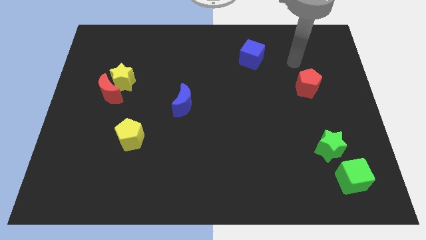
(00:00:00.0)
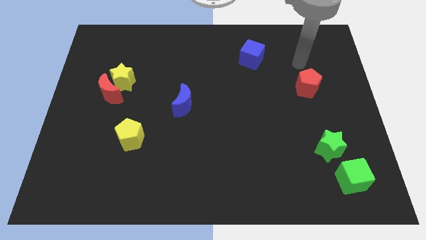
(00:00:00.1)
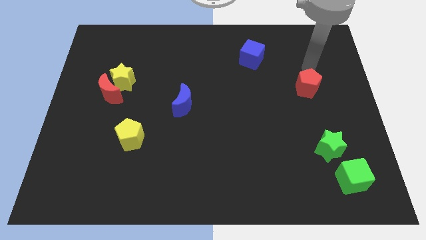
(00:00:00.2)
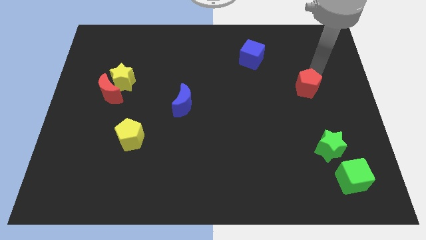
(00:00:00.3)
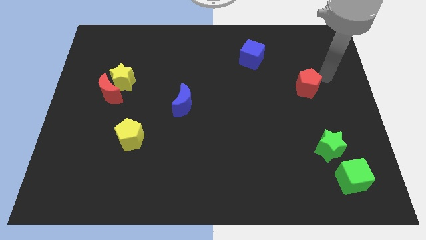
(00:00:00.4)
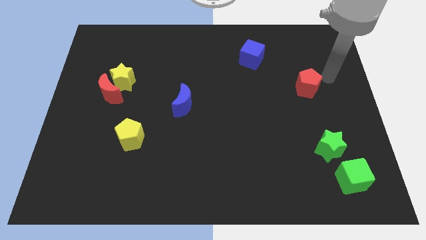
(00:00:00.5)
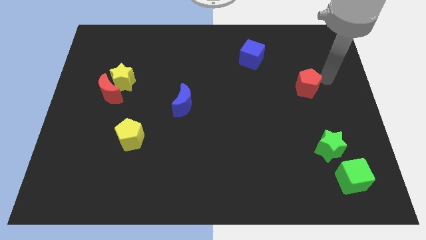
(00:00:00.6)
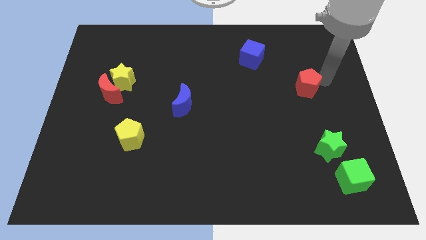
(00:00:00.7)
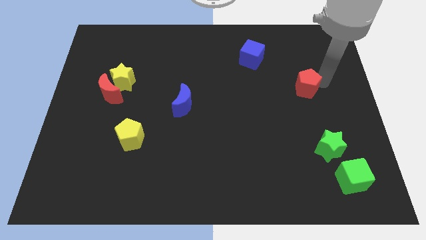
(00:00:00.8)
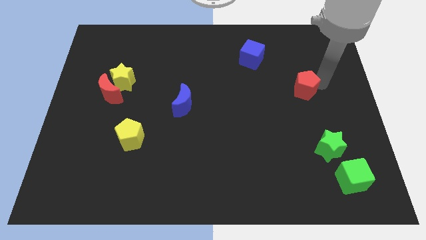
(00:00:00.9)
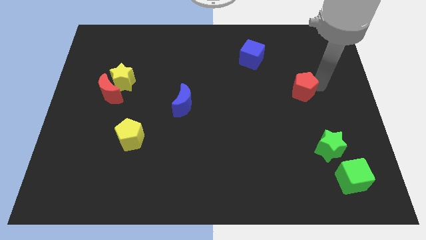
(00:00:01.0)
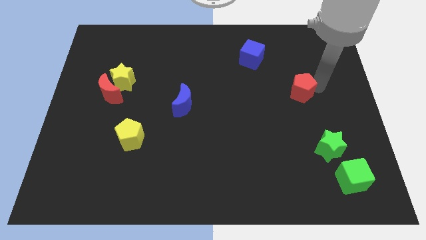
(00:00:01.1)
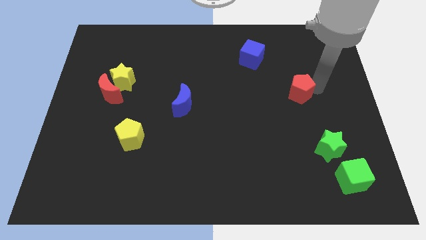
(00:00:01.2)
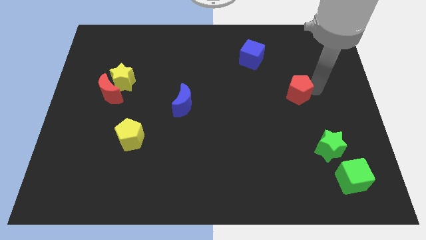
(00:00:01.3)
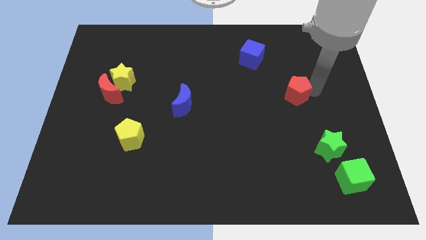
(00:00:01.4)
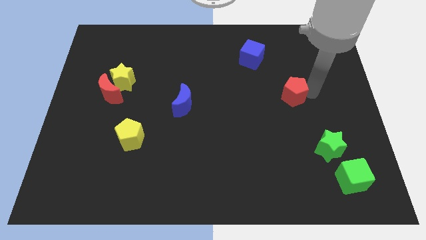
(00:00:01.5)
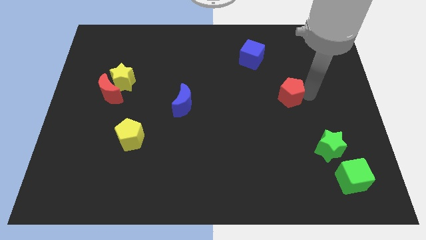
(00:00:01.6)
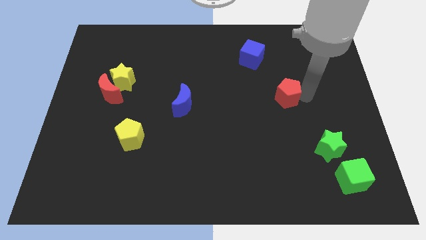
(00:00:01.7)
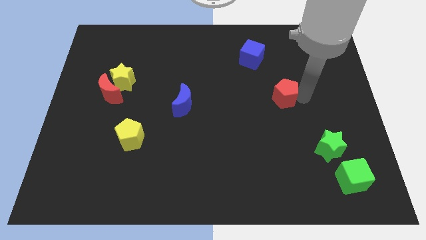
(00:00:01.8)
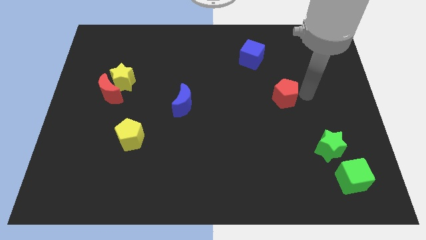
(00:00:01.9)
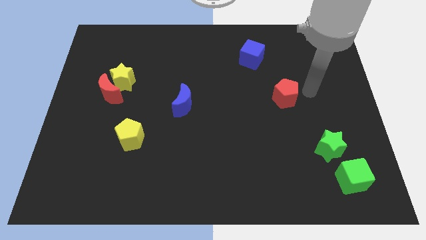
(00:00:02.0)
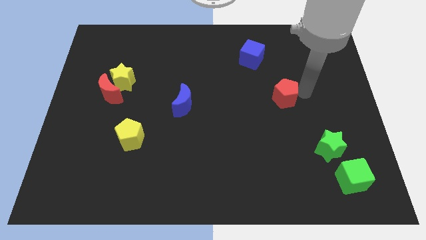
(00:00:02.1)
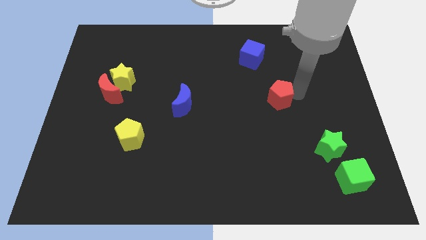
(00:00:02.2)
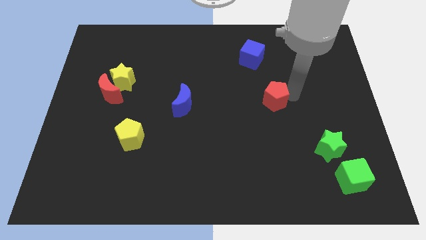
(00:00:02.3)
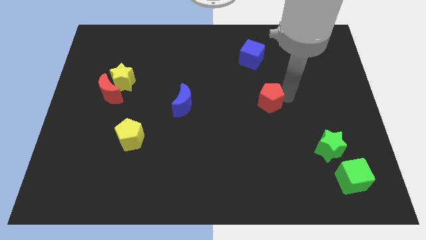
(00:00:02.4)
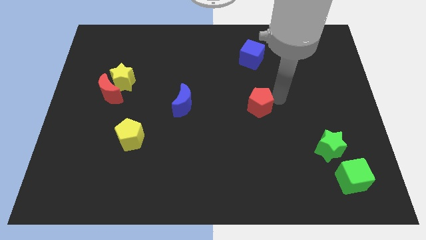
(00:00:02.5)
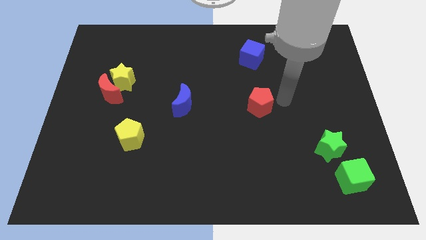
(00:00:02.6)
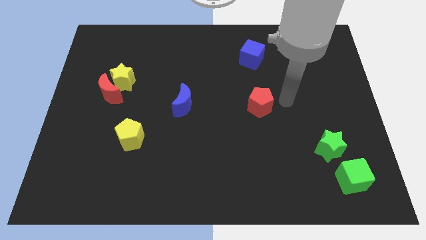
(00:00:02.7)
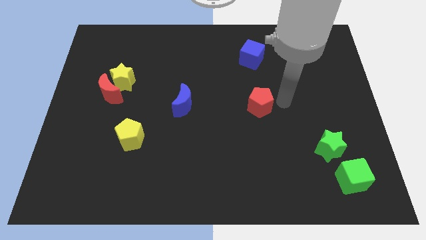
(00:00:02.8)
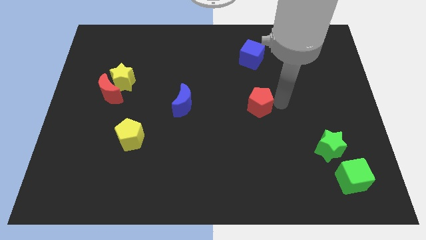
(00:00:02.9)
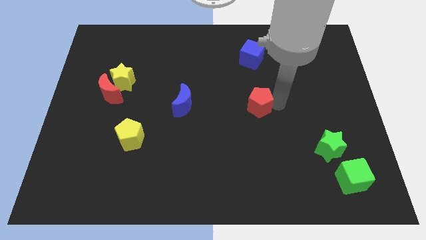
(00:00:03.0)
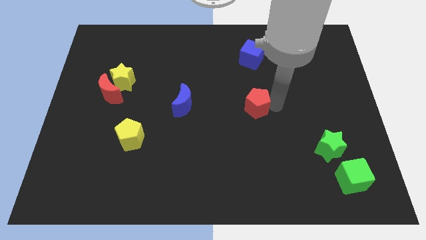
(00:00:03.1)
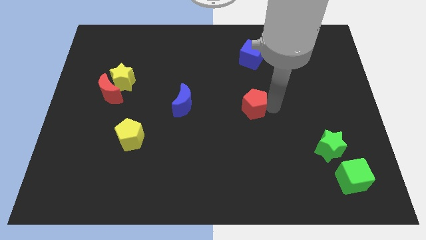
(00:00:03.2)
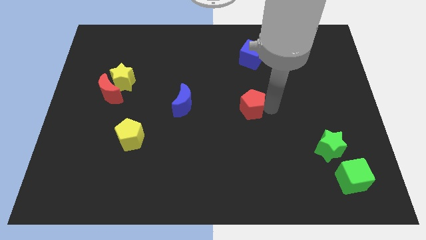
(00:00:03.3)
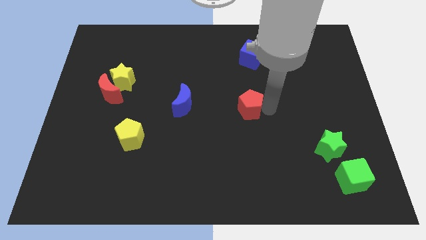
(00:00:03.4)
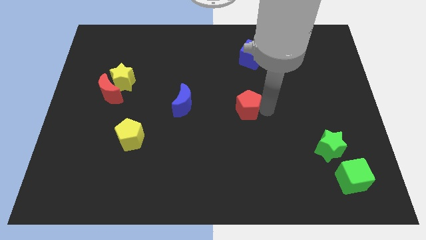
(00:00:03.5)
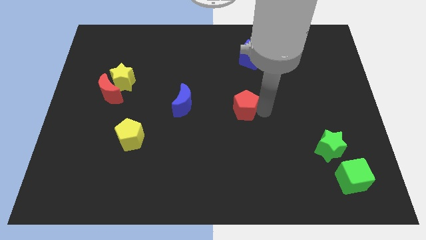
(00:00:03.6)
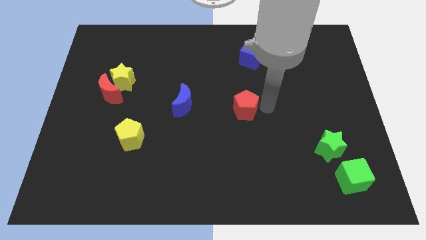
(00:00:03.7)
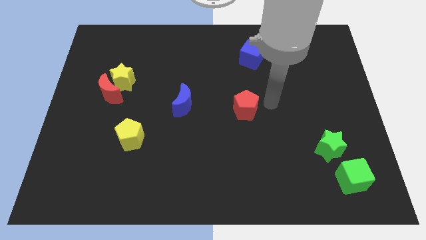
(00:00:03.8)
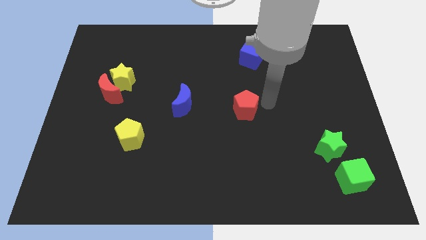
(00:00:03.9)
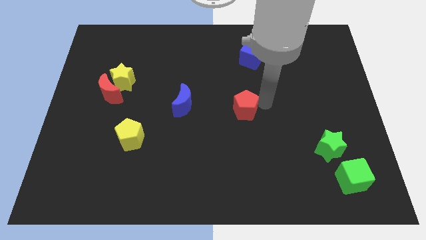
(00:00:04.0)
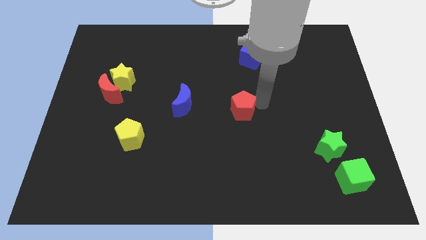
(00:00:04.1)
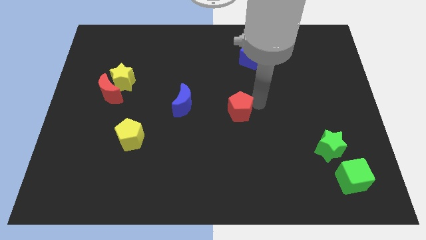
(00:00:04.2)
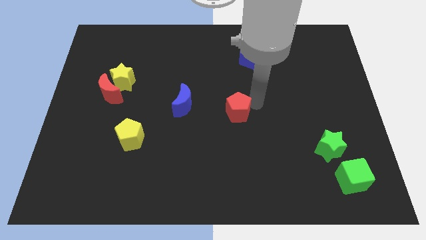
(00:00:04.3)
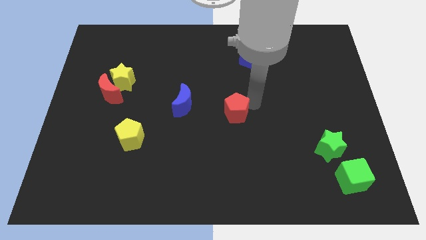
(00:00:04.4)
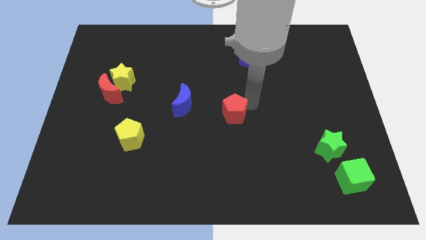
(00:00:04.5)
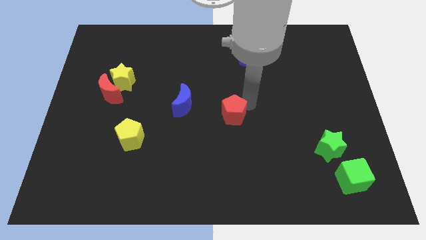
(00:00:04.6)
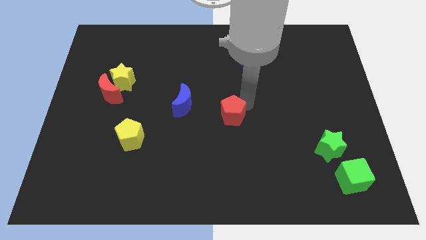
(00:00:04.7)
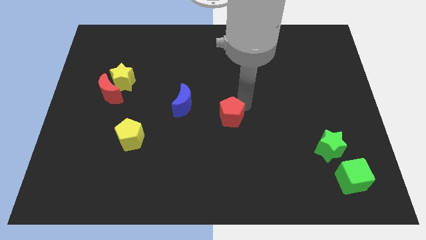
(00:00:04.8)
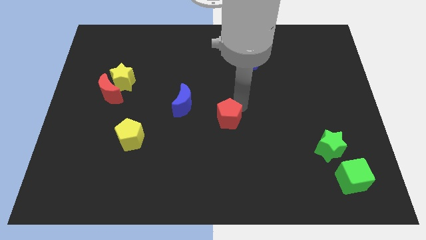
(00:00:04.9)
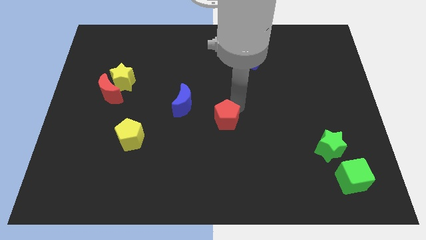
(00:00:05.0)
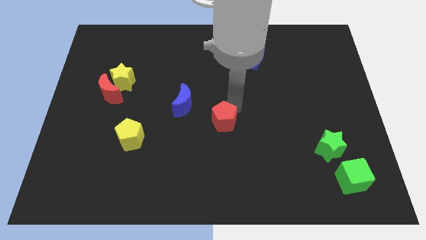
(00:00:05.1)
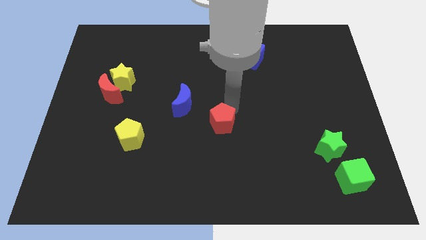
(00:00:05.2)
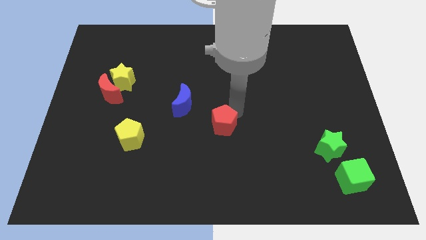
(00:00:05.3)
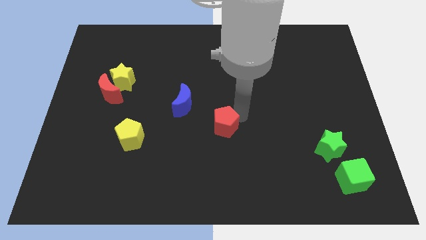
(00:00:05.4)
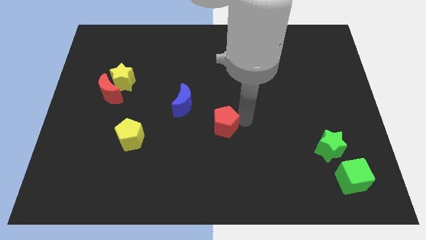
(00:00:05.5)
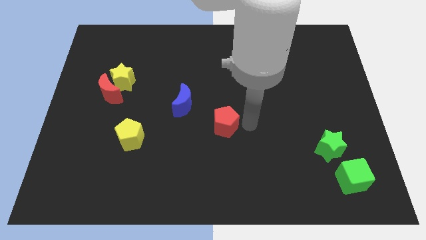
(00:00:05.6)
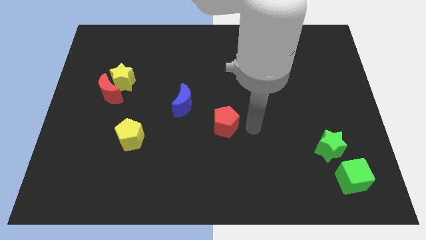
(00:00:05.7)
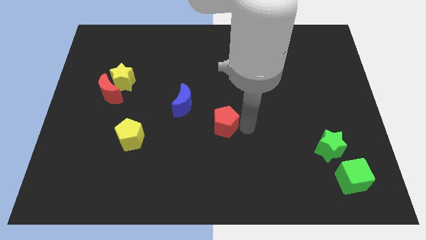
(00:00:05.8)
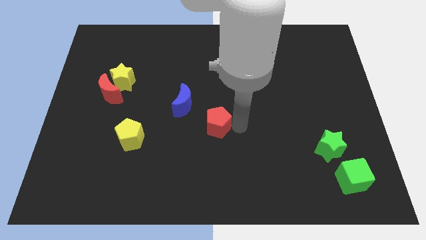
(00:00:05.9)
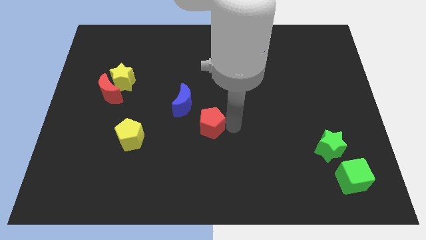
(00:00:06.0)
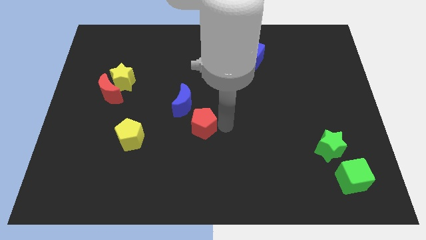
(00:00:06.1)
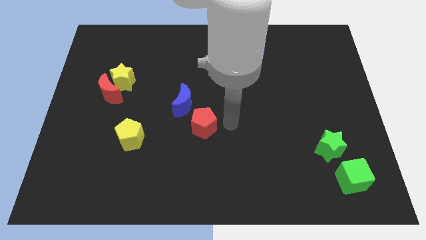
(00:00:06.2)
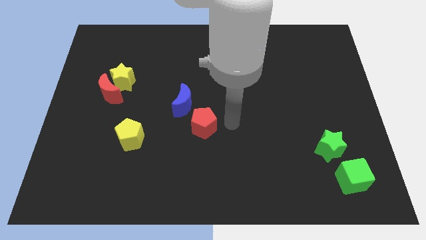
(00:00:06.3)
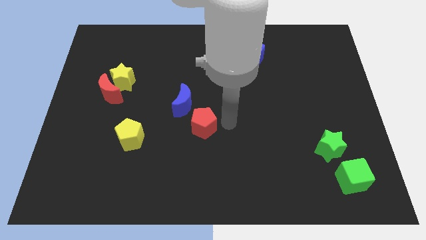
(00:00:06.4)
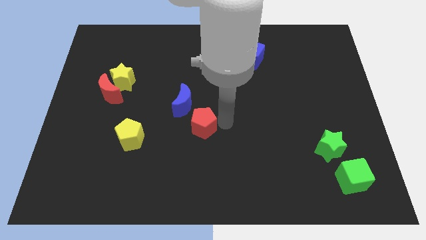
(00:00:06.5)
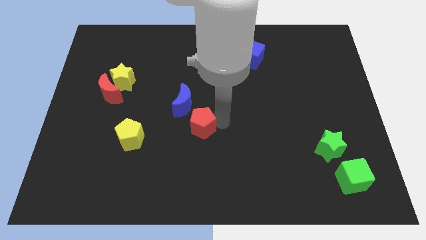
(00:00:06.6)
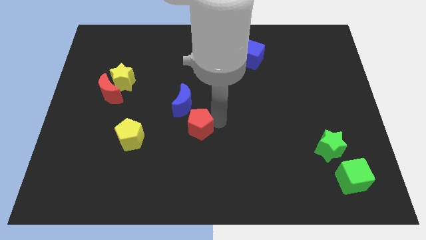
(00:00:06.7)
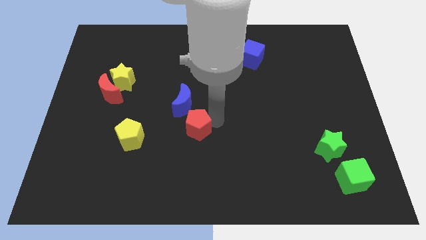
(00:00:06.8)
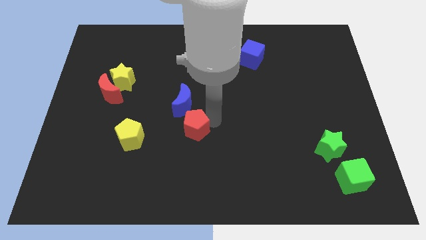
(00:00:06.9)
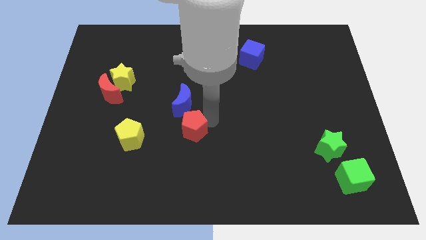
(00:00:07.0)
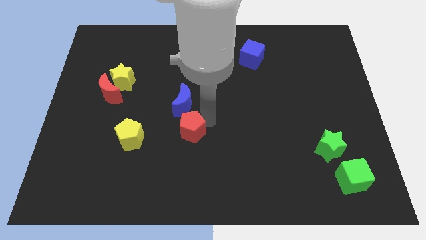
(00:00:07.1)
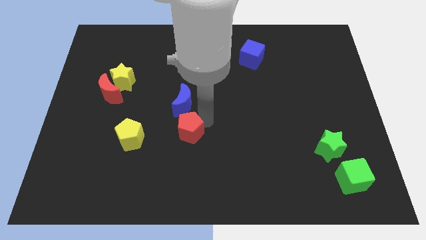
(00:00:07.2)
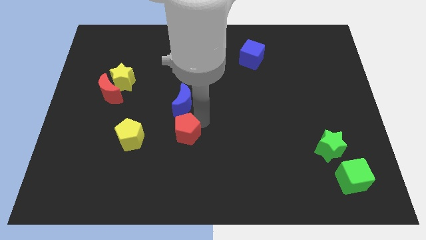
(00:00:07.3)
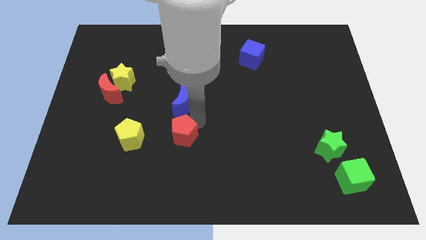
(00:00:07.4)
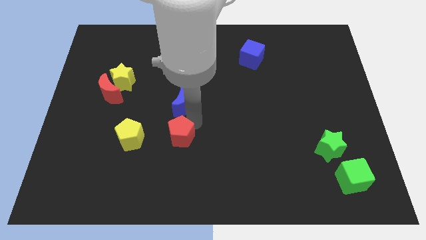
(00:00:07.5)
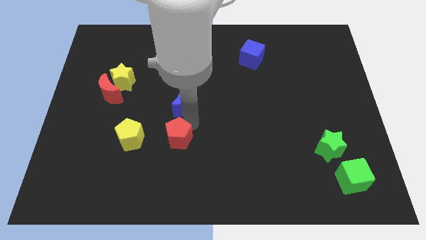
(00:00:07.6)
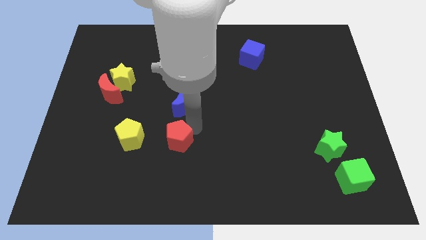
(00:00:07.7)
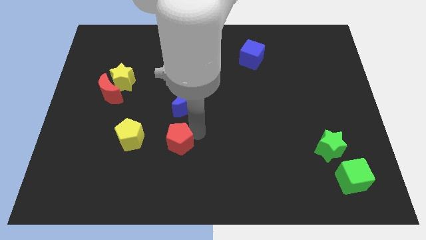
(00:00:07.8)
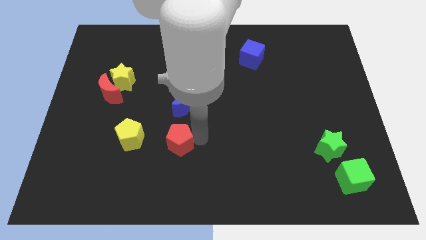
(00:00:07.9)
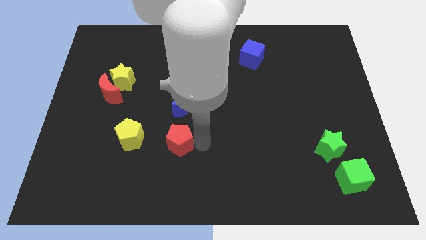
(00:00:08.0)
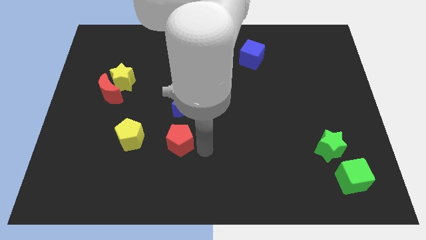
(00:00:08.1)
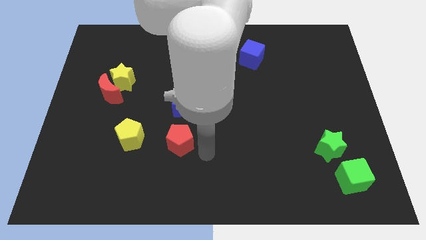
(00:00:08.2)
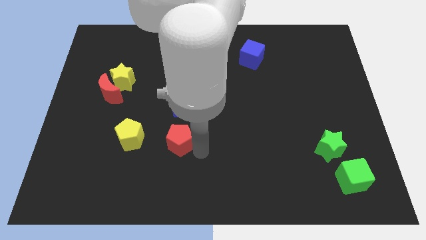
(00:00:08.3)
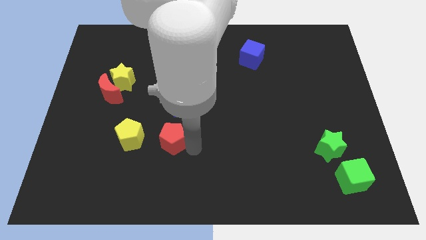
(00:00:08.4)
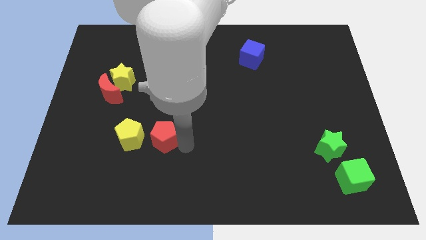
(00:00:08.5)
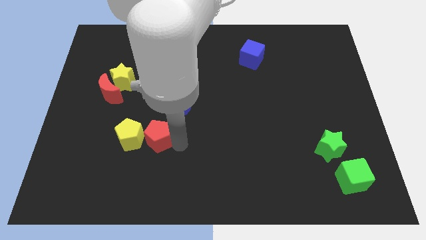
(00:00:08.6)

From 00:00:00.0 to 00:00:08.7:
slide the red pentagon to the yellow pentagon
